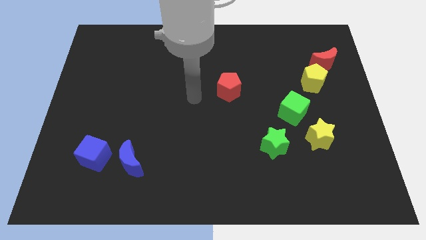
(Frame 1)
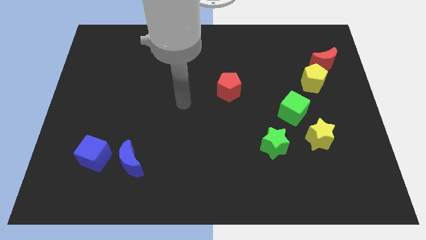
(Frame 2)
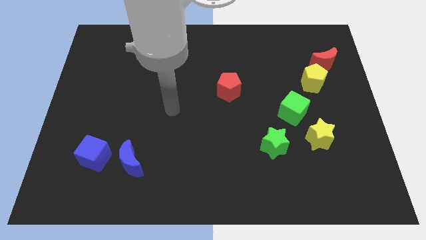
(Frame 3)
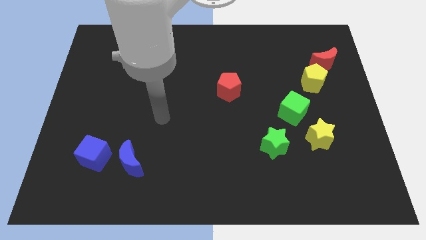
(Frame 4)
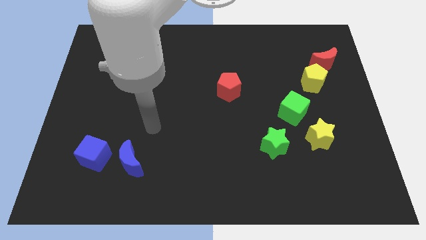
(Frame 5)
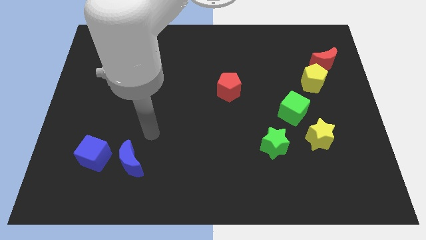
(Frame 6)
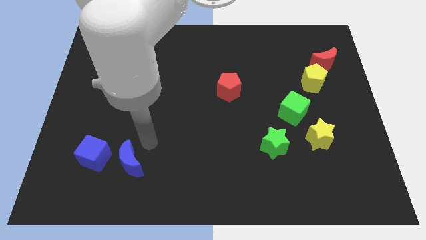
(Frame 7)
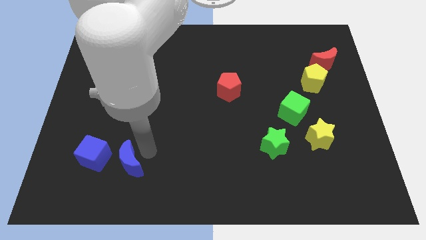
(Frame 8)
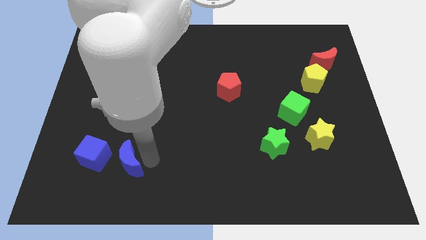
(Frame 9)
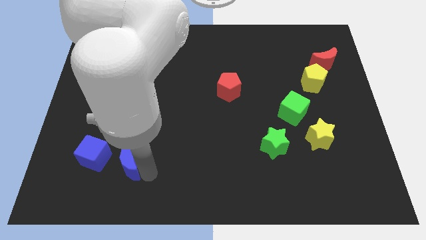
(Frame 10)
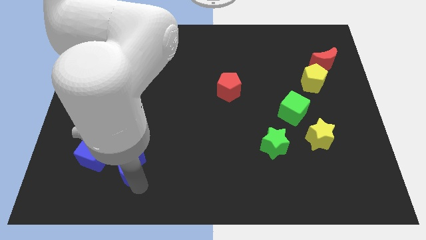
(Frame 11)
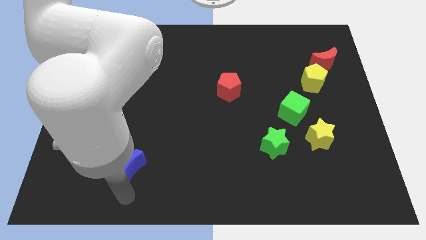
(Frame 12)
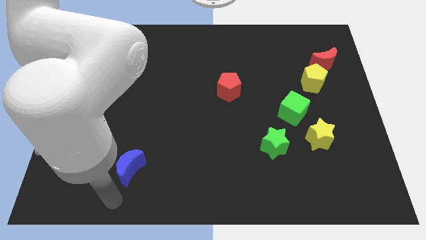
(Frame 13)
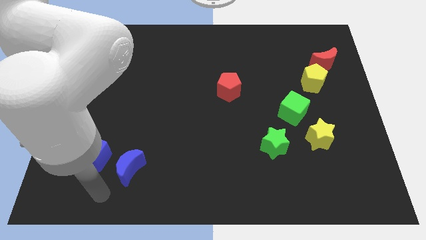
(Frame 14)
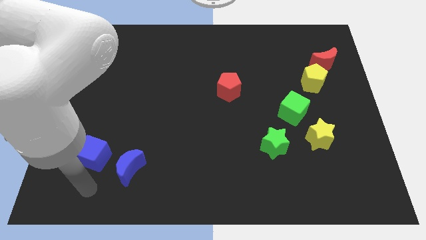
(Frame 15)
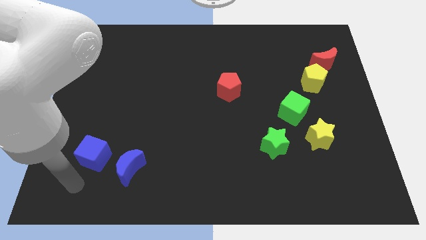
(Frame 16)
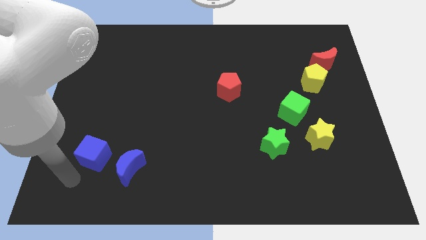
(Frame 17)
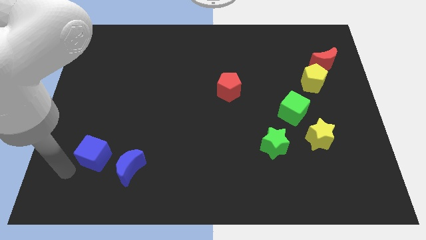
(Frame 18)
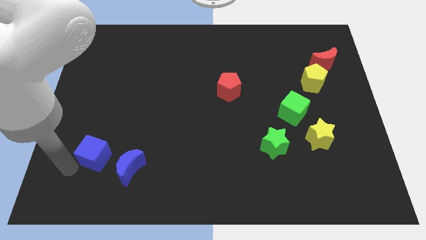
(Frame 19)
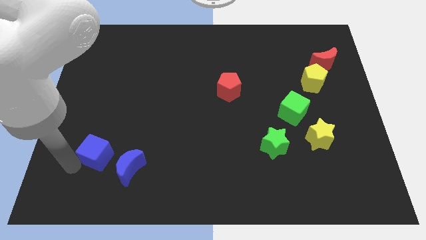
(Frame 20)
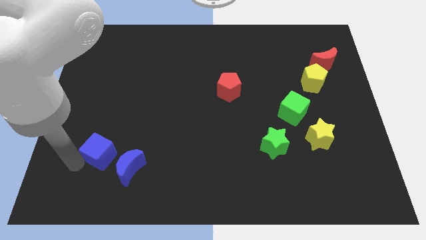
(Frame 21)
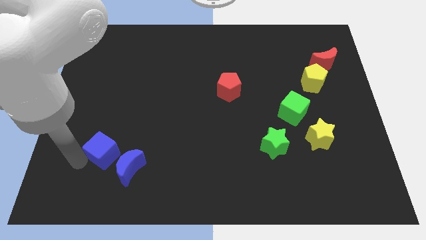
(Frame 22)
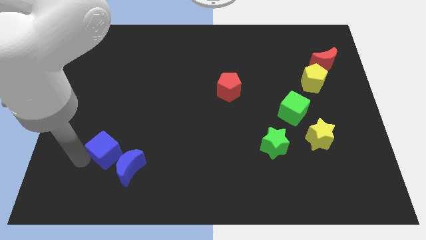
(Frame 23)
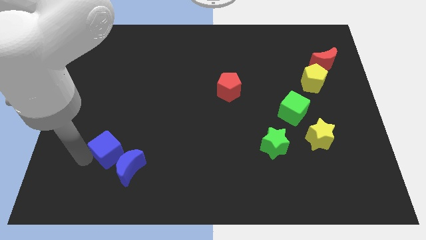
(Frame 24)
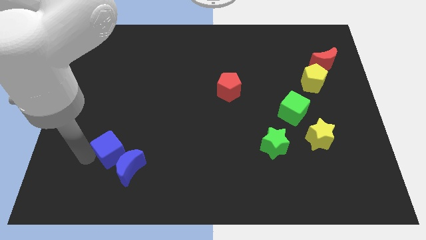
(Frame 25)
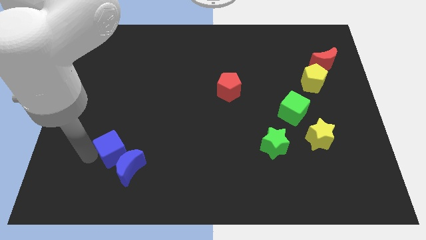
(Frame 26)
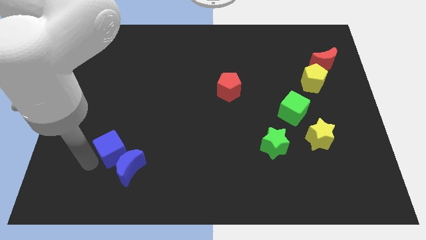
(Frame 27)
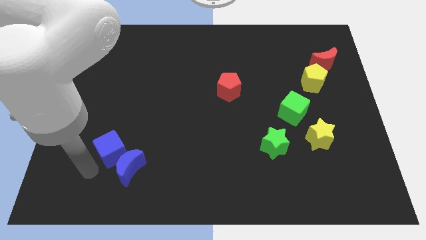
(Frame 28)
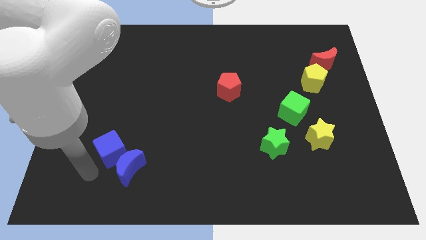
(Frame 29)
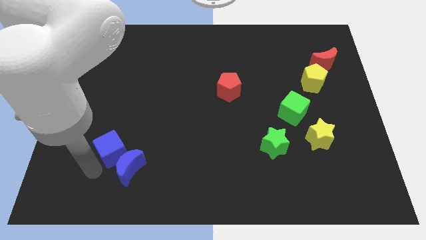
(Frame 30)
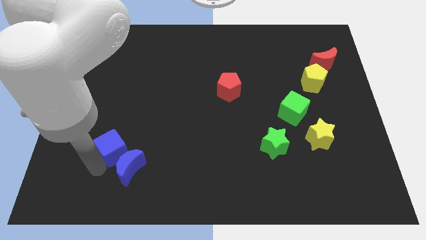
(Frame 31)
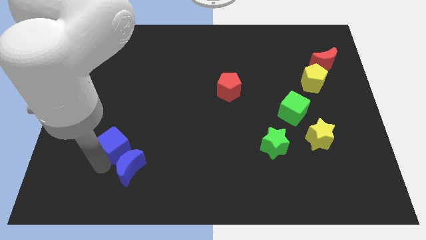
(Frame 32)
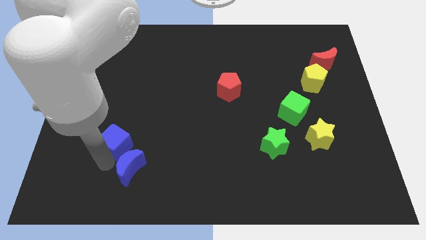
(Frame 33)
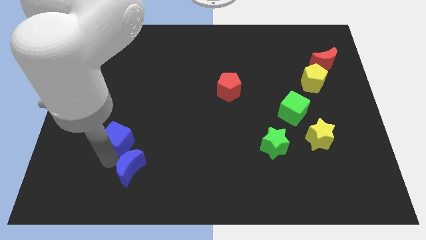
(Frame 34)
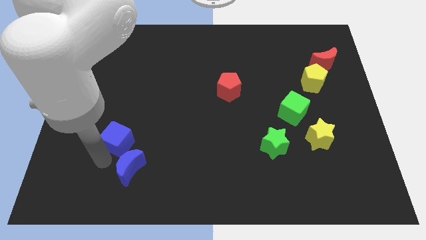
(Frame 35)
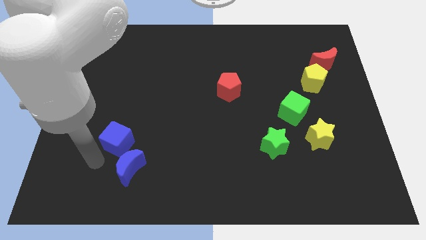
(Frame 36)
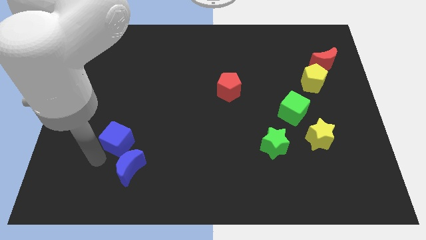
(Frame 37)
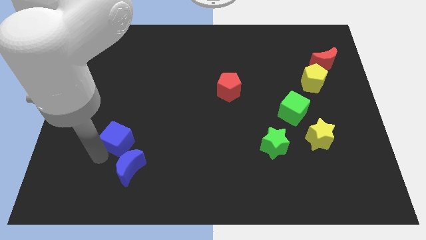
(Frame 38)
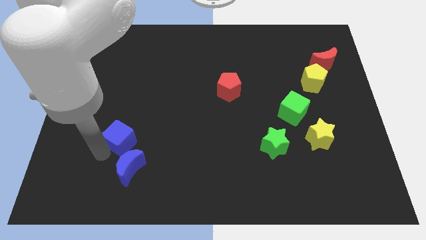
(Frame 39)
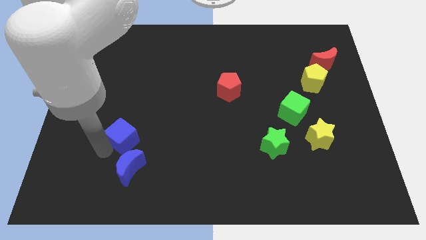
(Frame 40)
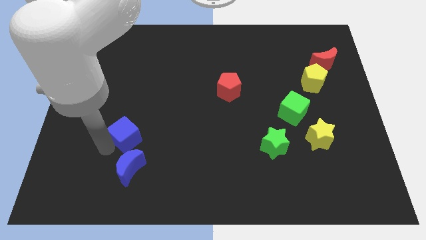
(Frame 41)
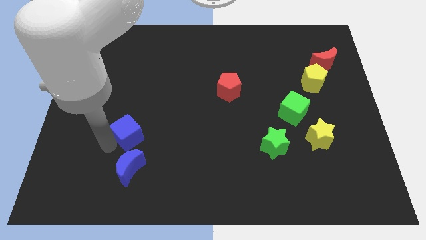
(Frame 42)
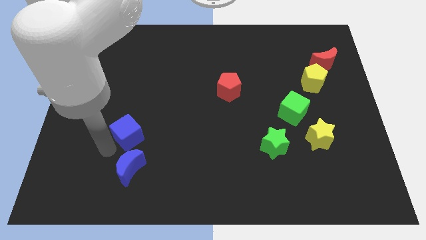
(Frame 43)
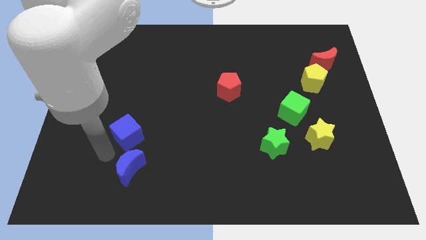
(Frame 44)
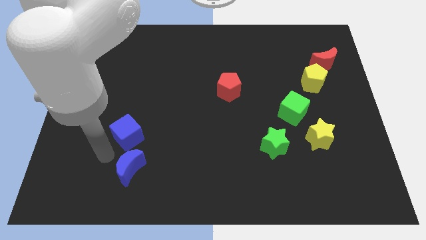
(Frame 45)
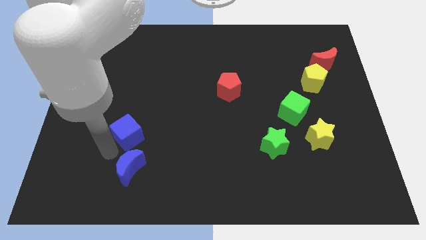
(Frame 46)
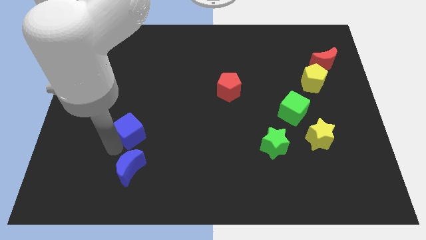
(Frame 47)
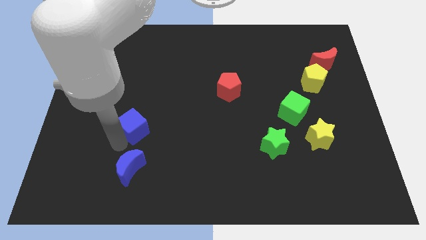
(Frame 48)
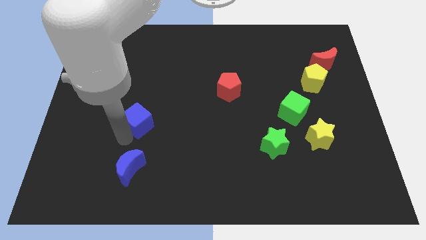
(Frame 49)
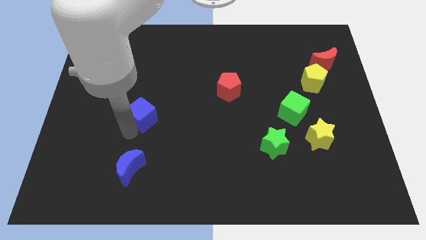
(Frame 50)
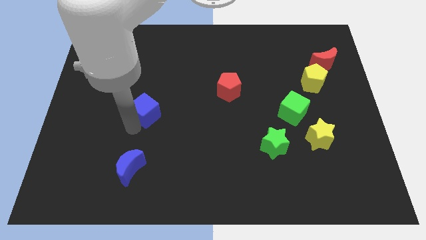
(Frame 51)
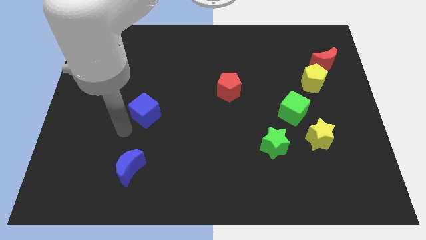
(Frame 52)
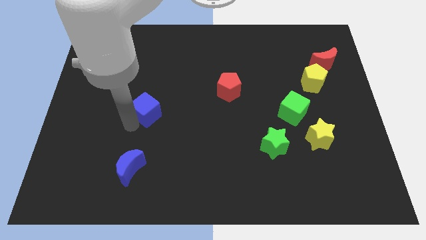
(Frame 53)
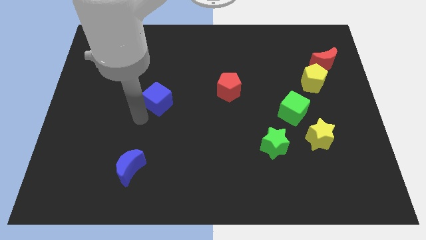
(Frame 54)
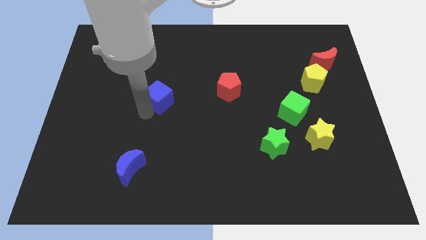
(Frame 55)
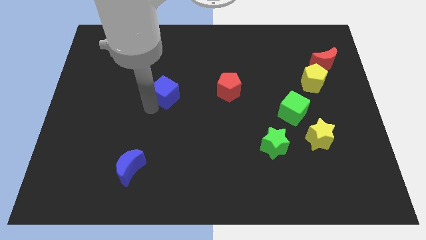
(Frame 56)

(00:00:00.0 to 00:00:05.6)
move the blue cube upwards and then right

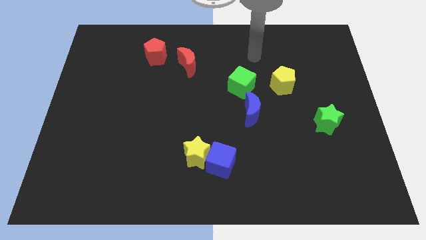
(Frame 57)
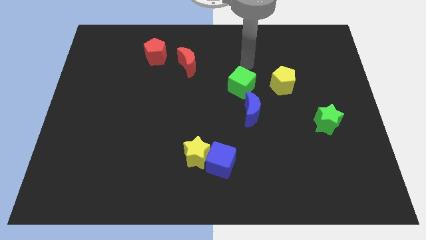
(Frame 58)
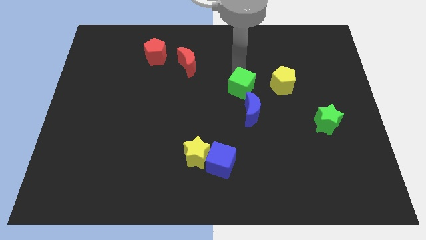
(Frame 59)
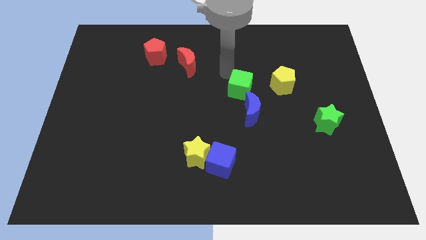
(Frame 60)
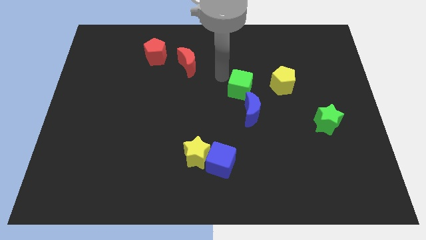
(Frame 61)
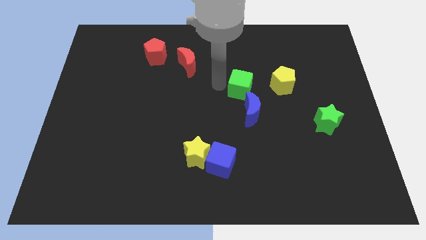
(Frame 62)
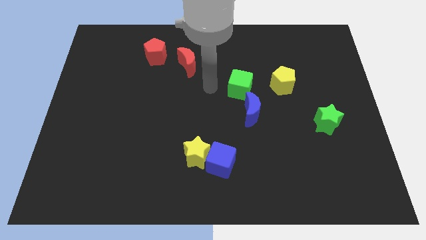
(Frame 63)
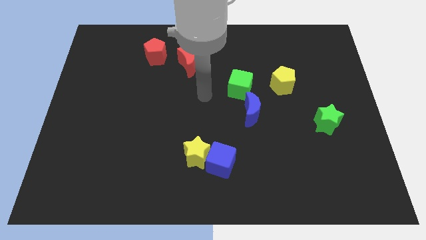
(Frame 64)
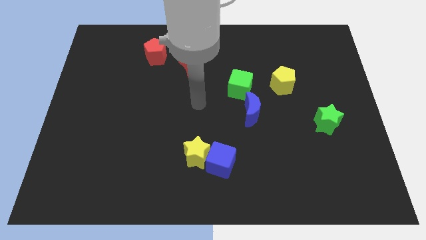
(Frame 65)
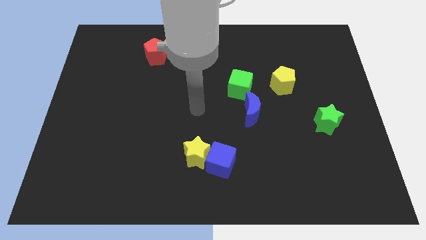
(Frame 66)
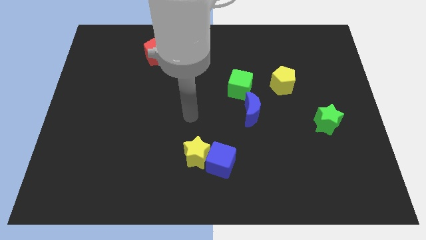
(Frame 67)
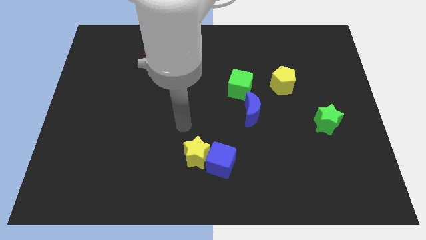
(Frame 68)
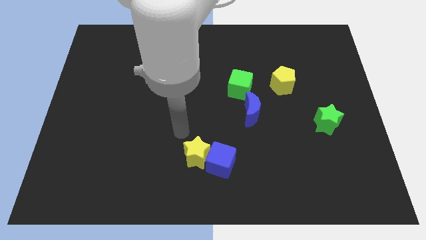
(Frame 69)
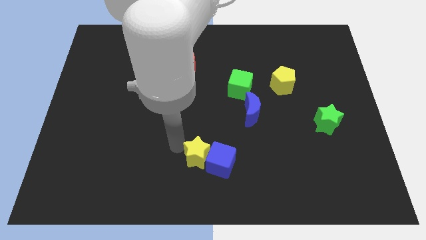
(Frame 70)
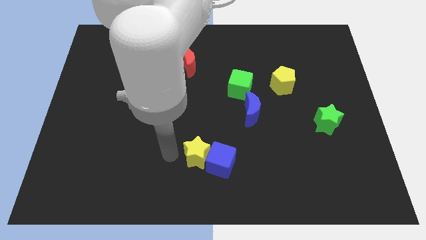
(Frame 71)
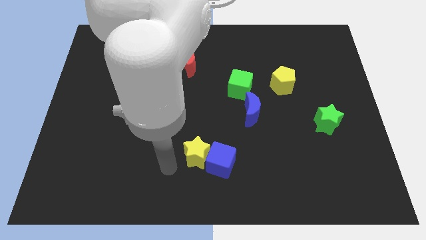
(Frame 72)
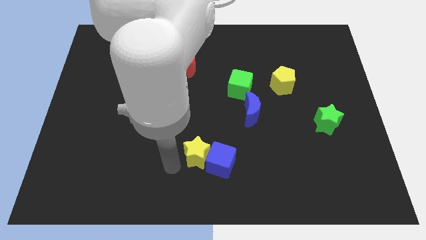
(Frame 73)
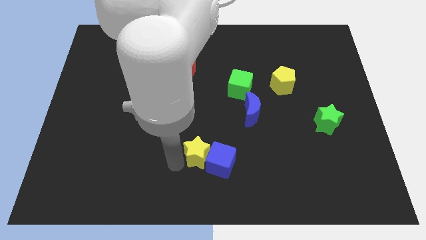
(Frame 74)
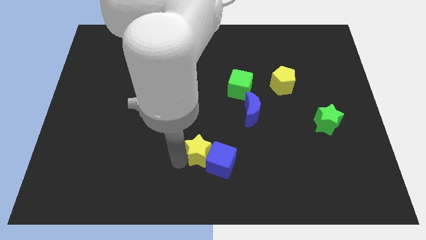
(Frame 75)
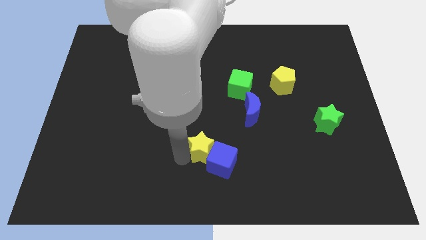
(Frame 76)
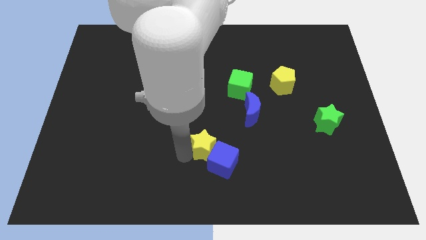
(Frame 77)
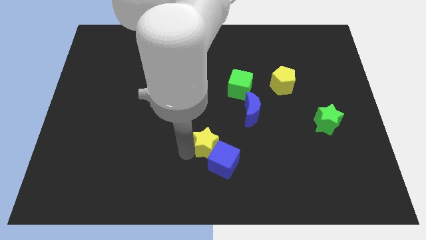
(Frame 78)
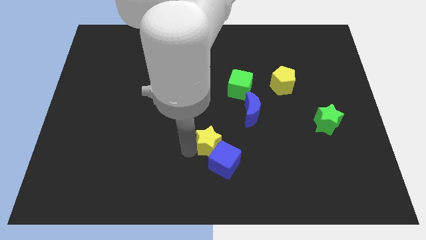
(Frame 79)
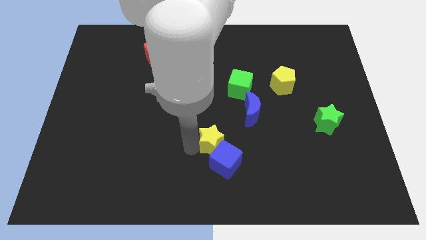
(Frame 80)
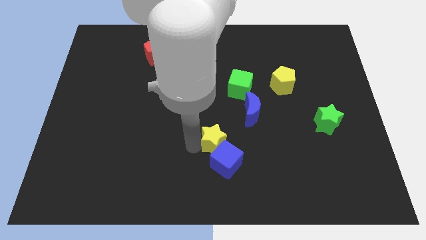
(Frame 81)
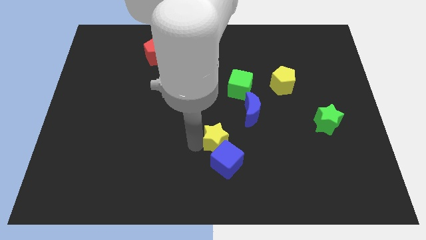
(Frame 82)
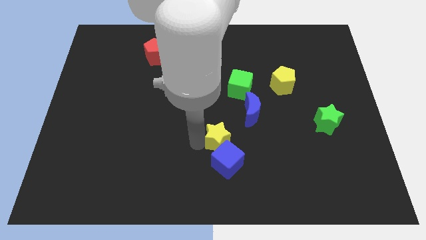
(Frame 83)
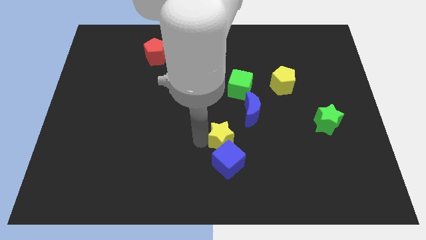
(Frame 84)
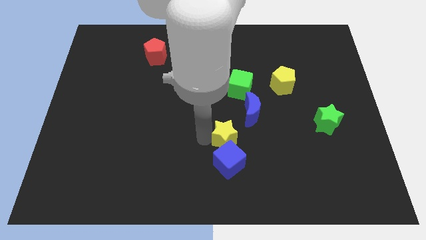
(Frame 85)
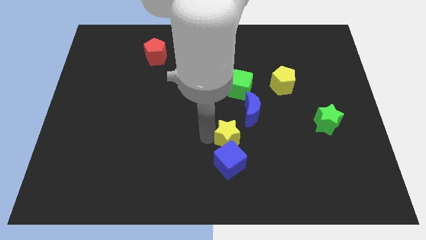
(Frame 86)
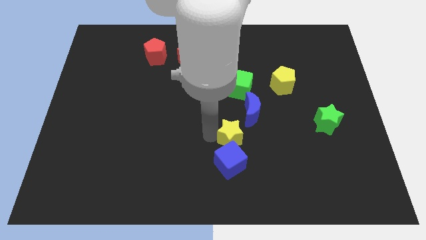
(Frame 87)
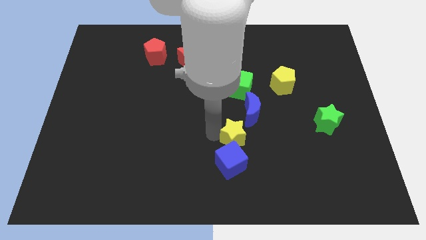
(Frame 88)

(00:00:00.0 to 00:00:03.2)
move the yellow star slightly to the right
